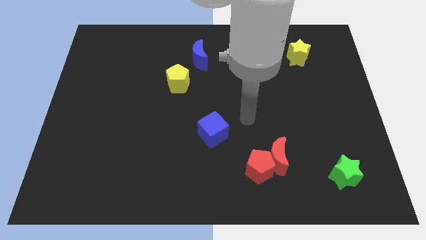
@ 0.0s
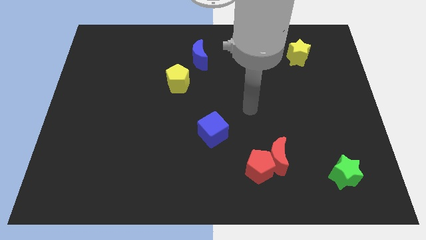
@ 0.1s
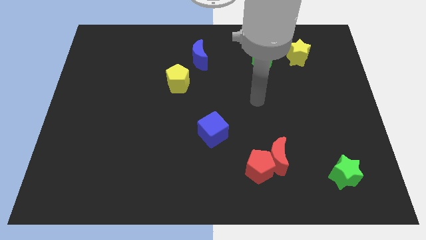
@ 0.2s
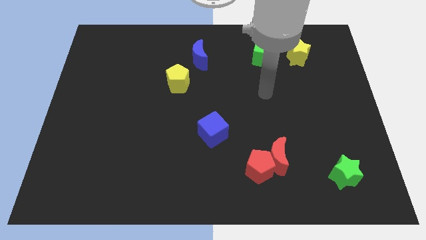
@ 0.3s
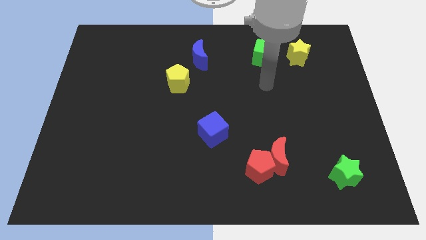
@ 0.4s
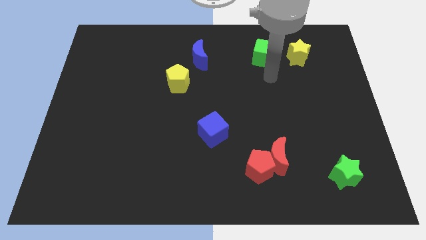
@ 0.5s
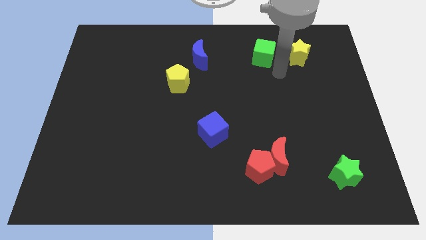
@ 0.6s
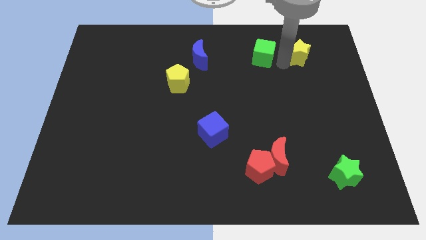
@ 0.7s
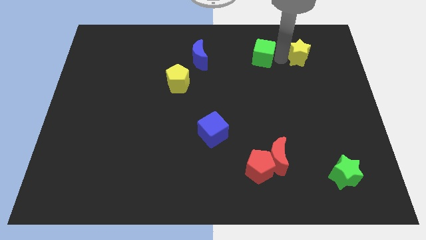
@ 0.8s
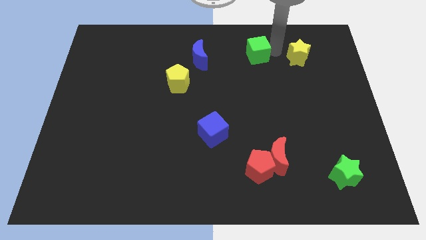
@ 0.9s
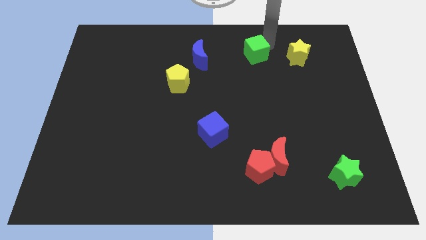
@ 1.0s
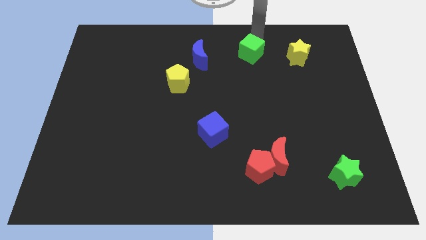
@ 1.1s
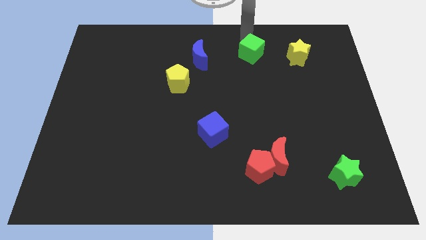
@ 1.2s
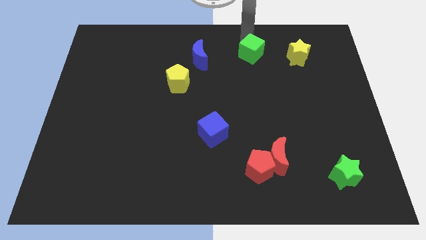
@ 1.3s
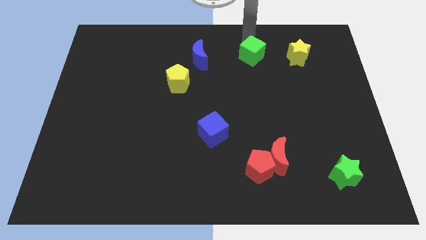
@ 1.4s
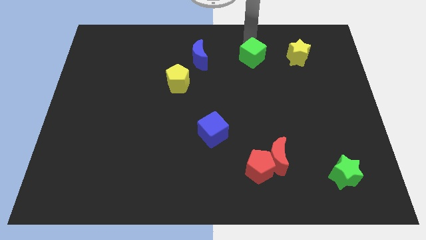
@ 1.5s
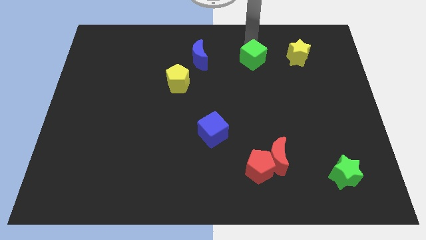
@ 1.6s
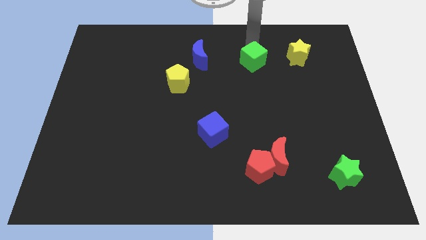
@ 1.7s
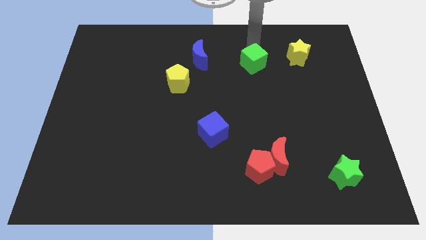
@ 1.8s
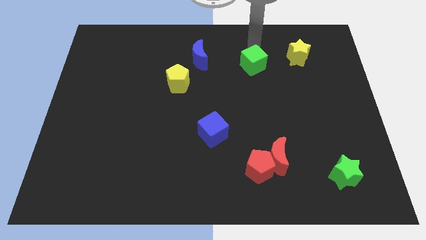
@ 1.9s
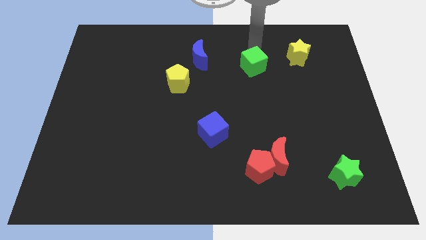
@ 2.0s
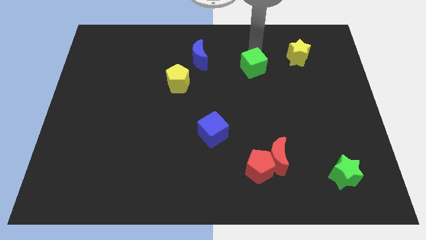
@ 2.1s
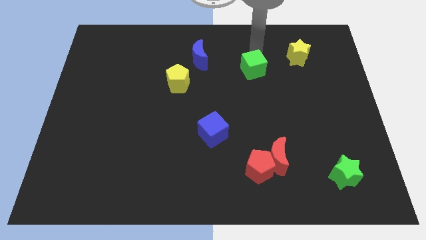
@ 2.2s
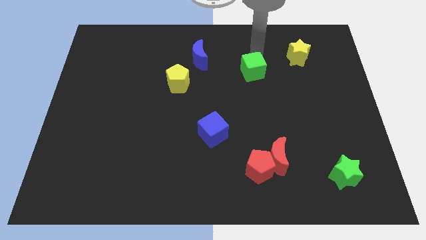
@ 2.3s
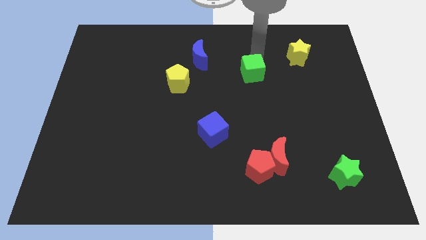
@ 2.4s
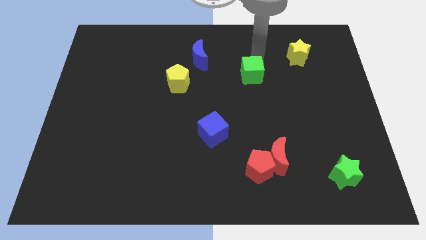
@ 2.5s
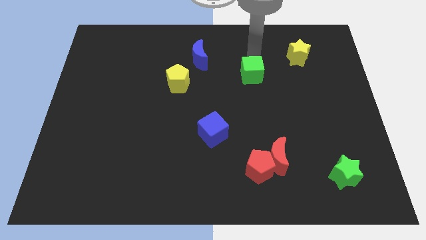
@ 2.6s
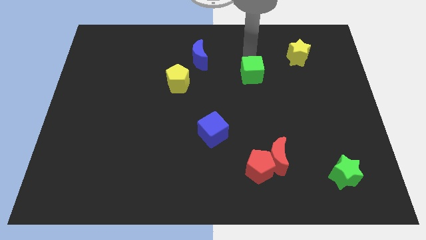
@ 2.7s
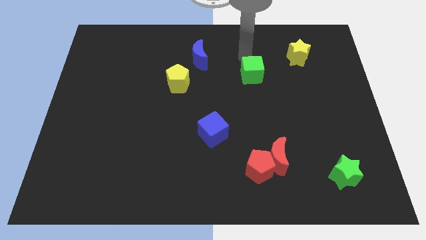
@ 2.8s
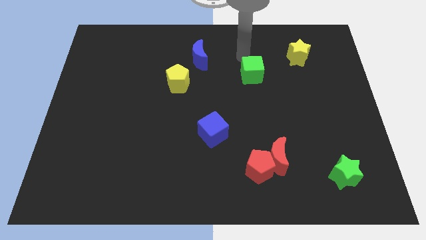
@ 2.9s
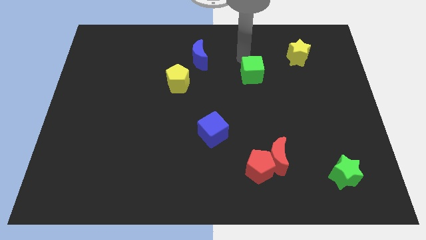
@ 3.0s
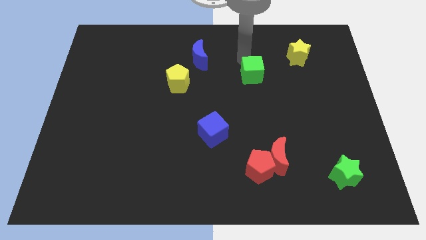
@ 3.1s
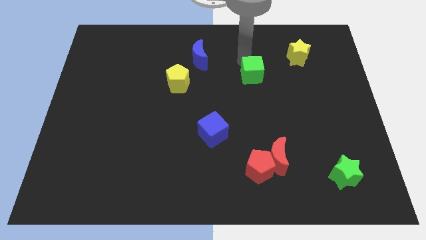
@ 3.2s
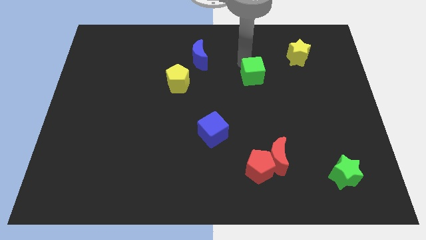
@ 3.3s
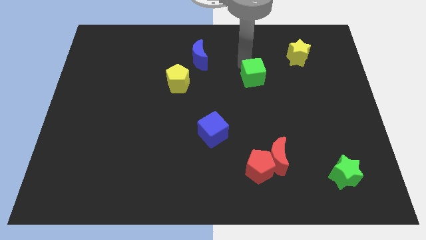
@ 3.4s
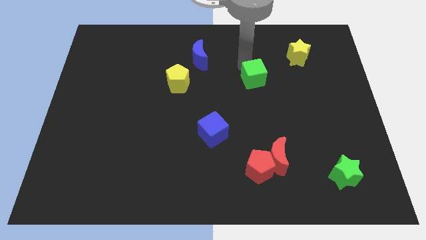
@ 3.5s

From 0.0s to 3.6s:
push the green cube a bit downwards

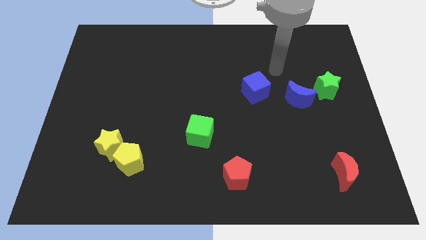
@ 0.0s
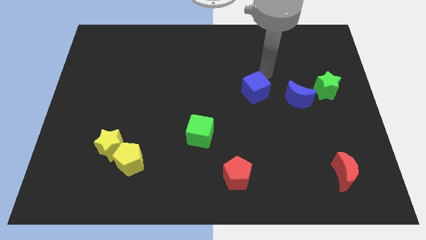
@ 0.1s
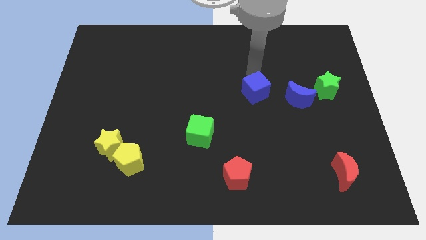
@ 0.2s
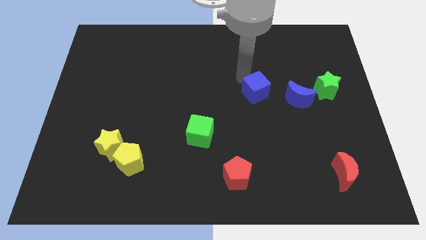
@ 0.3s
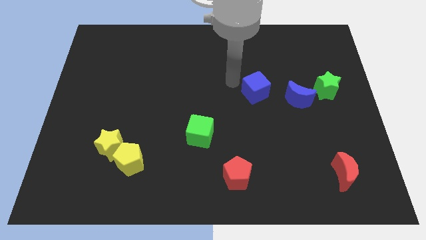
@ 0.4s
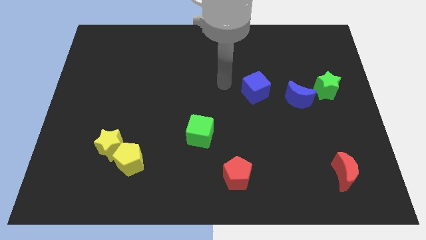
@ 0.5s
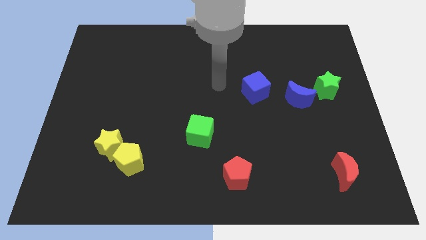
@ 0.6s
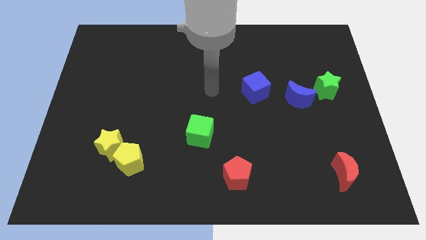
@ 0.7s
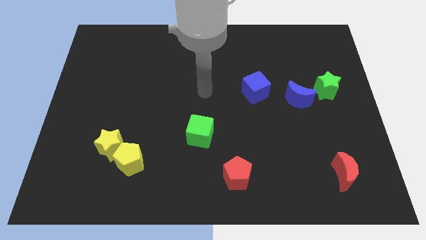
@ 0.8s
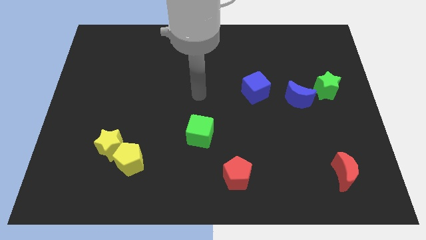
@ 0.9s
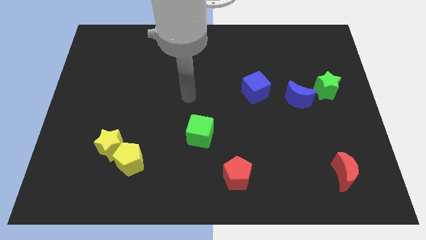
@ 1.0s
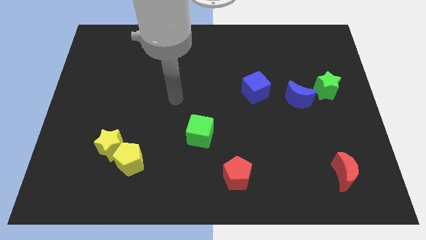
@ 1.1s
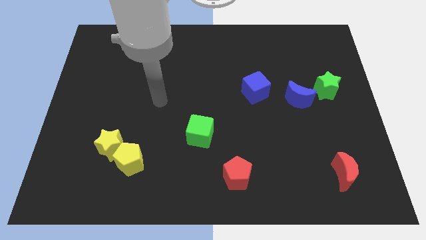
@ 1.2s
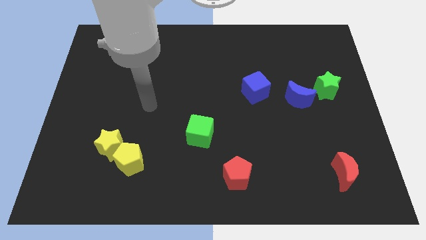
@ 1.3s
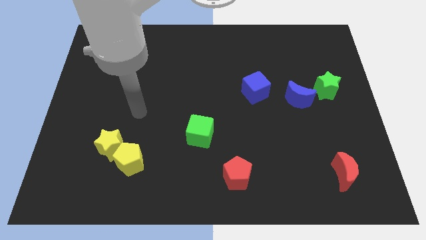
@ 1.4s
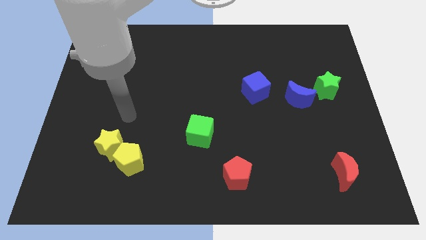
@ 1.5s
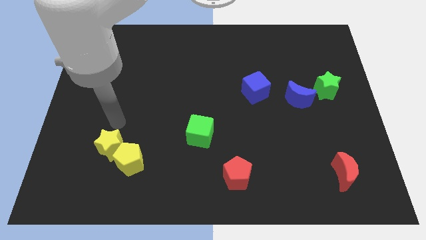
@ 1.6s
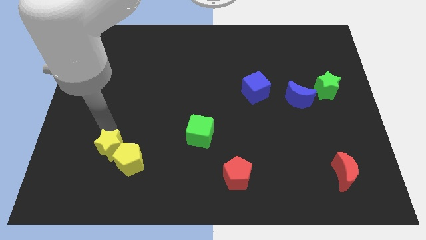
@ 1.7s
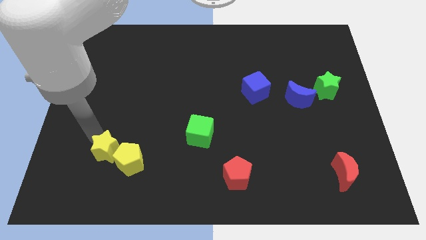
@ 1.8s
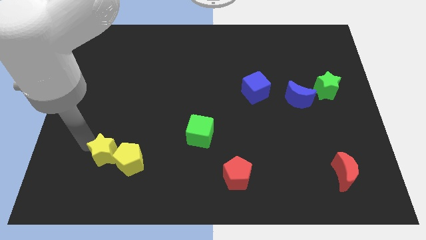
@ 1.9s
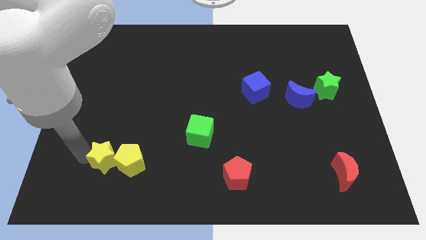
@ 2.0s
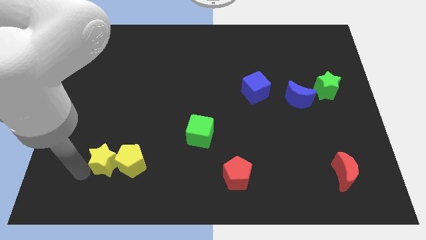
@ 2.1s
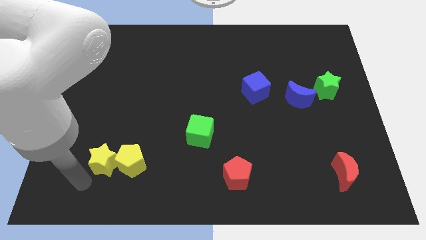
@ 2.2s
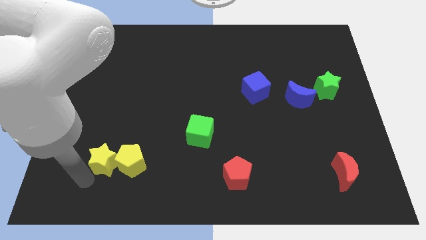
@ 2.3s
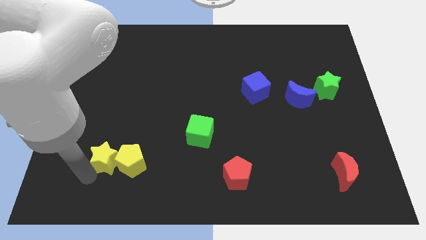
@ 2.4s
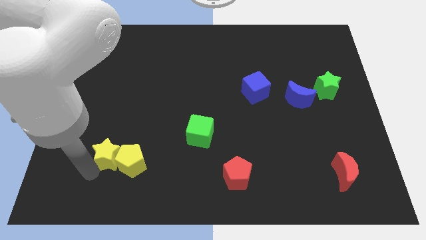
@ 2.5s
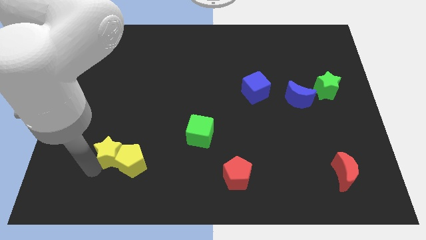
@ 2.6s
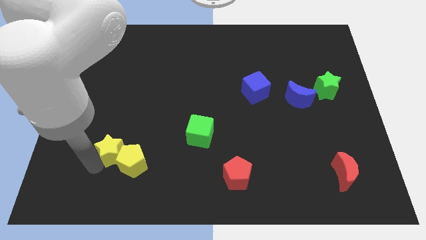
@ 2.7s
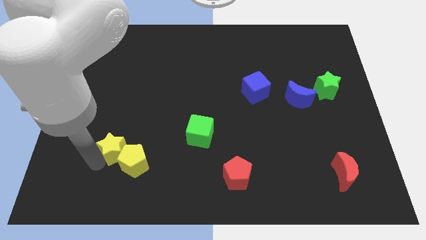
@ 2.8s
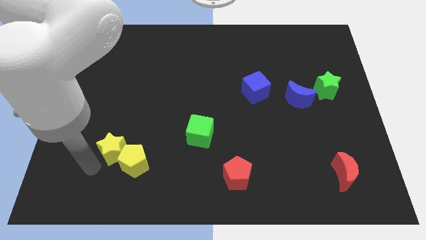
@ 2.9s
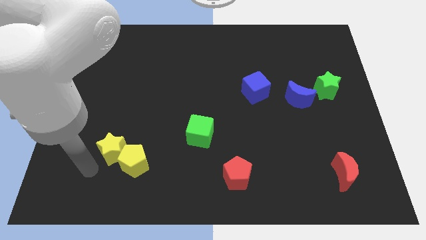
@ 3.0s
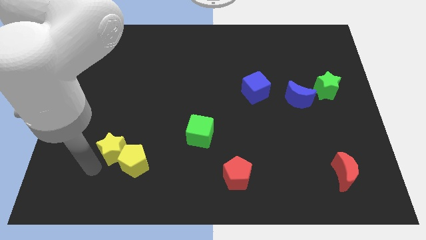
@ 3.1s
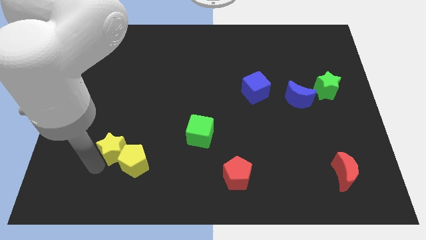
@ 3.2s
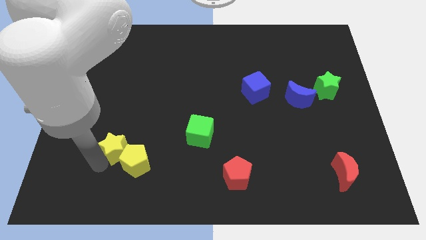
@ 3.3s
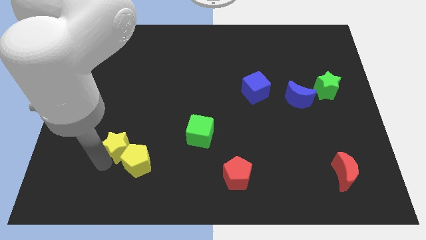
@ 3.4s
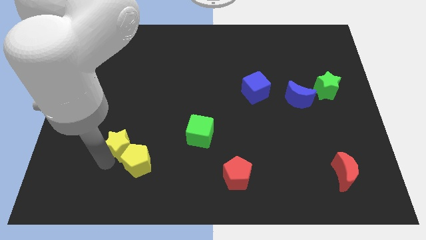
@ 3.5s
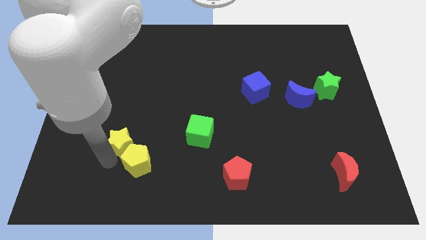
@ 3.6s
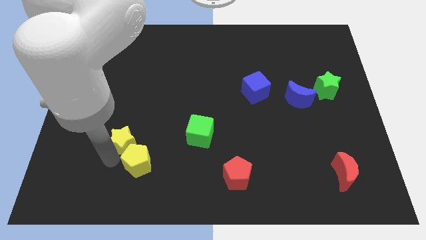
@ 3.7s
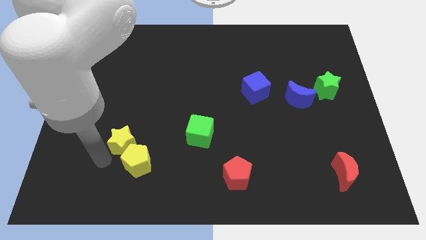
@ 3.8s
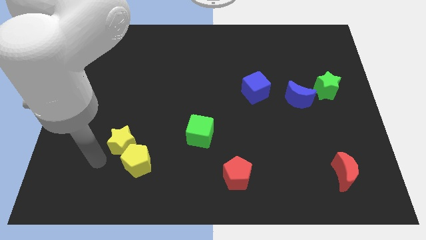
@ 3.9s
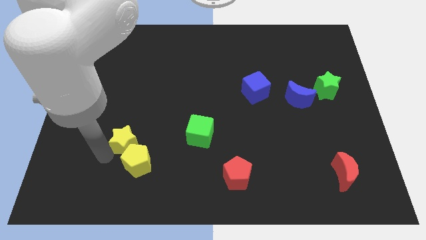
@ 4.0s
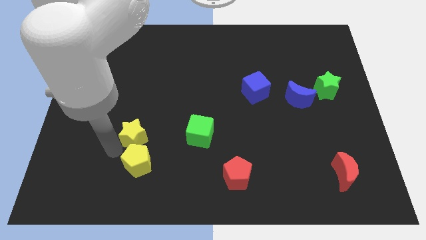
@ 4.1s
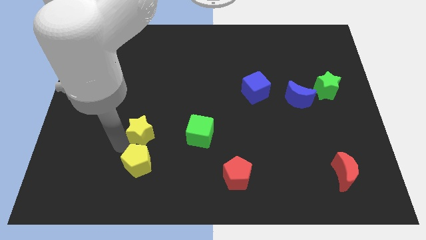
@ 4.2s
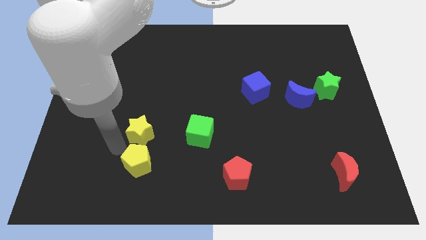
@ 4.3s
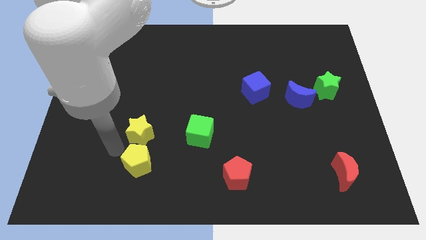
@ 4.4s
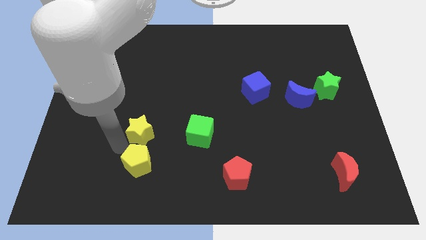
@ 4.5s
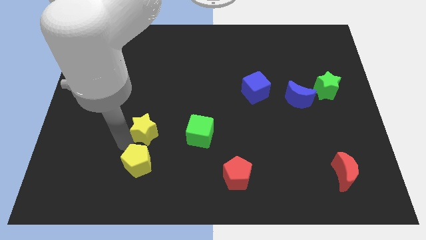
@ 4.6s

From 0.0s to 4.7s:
push the yellow star upwards and to the right diagonally somewhat
